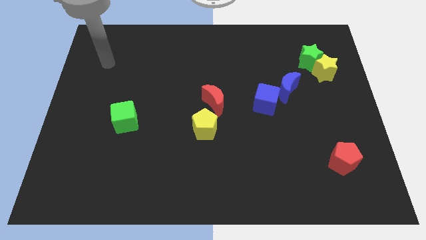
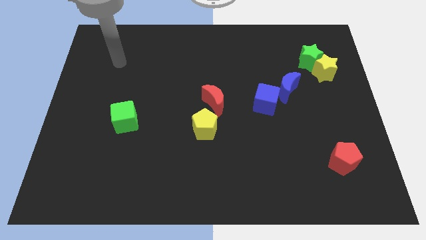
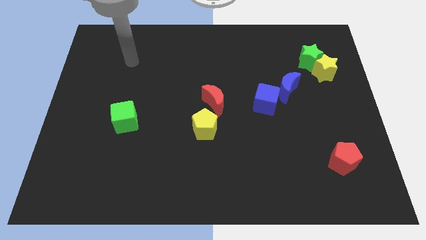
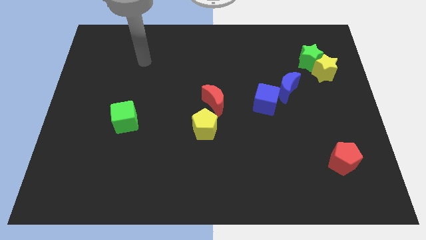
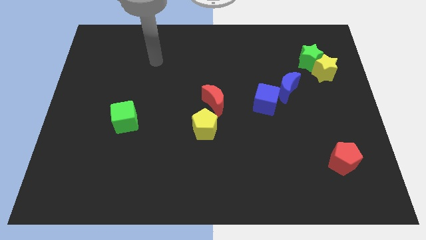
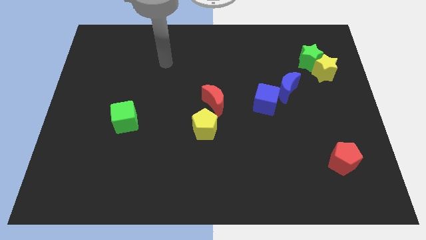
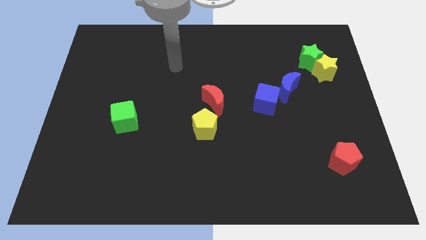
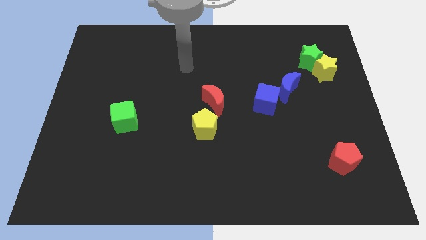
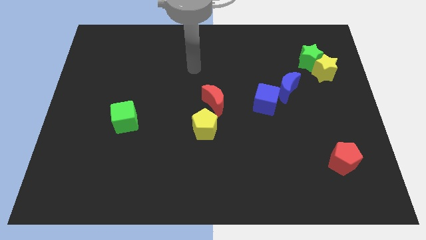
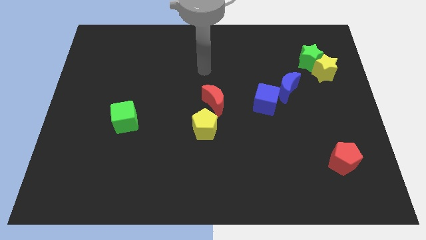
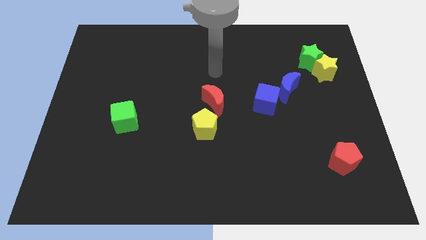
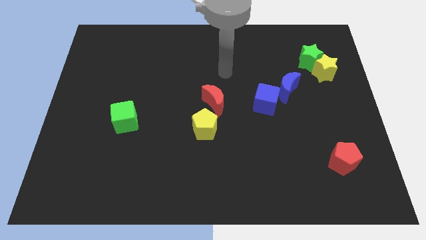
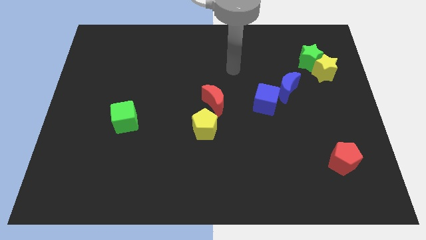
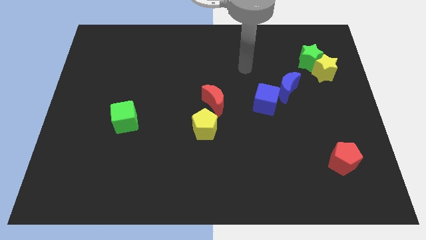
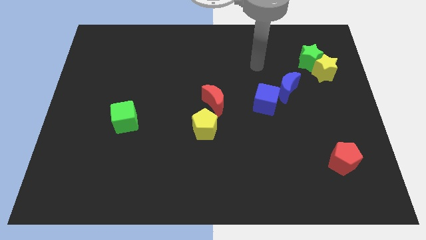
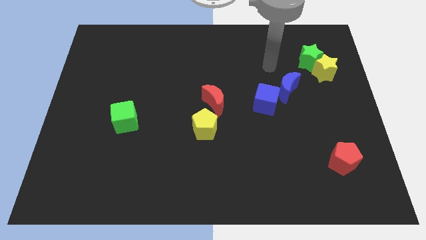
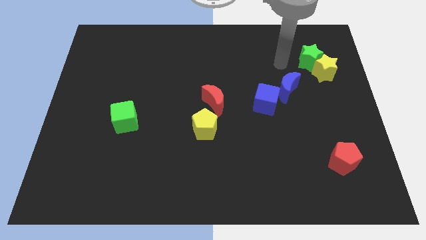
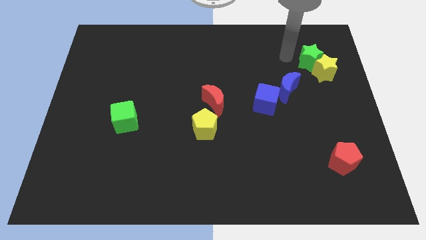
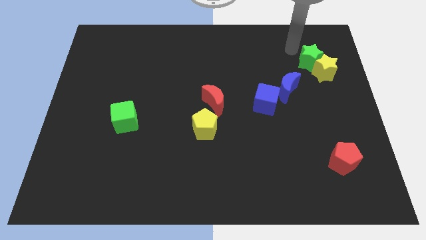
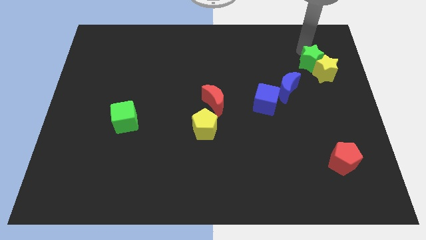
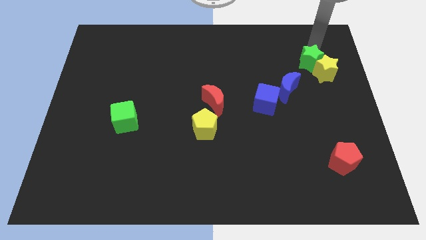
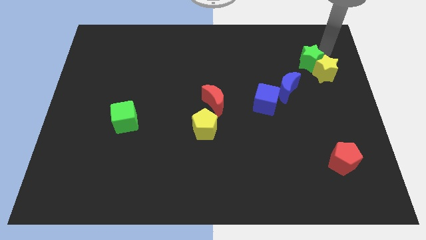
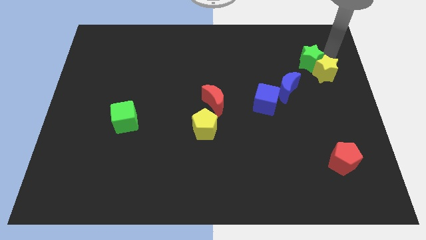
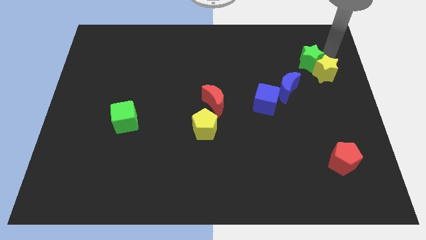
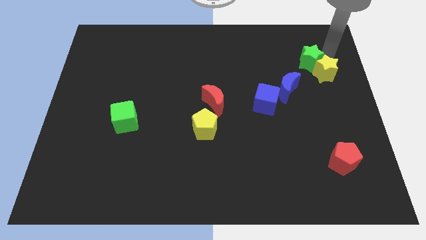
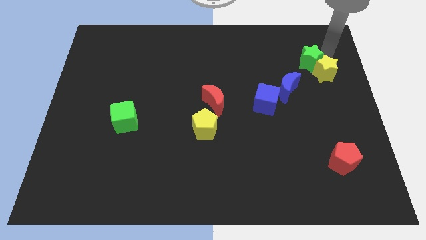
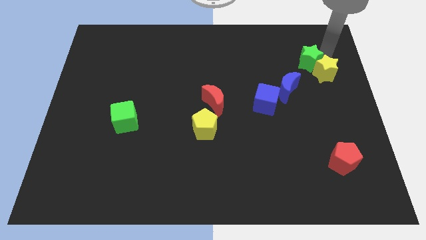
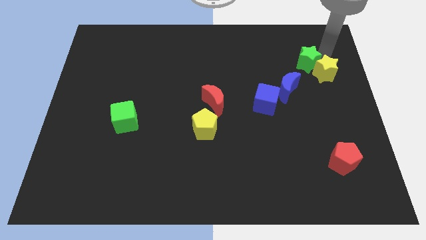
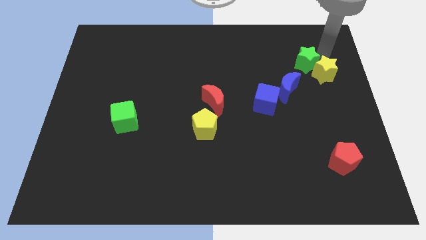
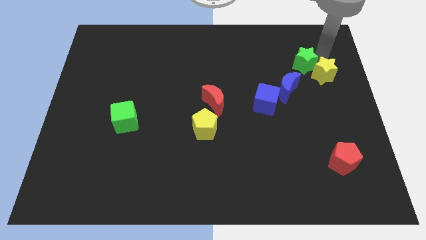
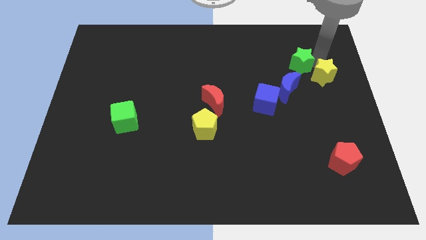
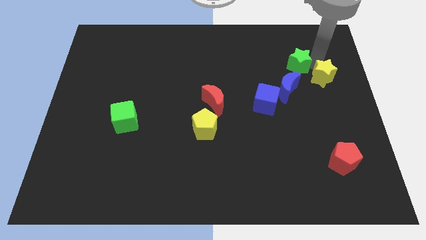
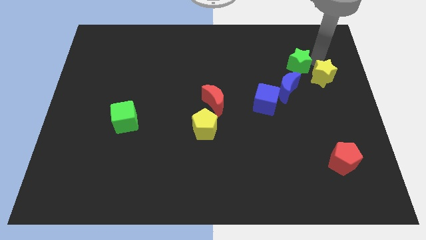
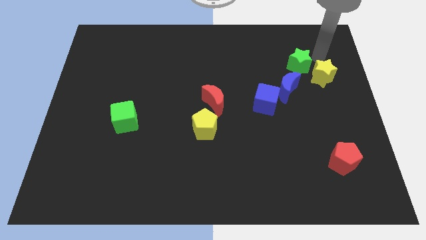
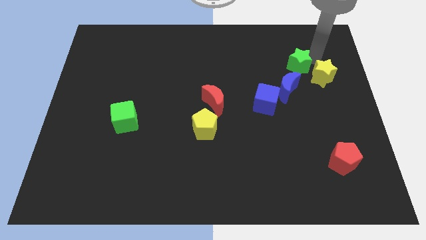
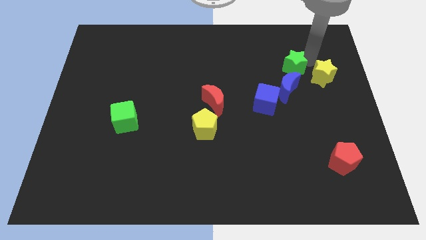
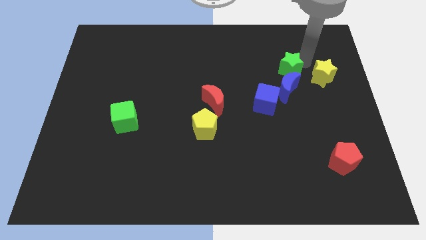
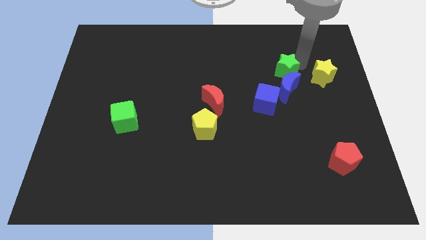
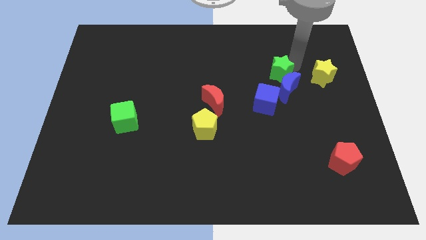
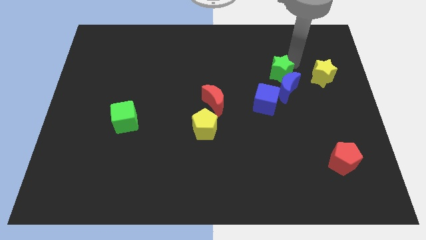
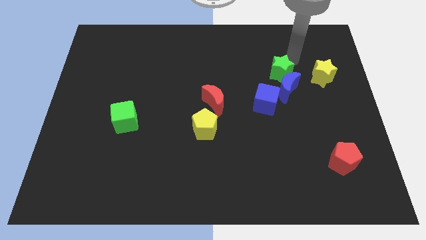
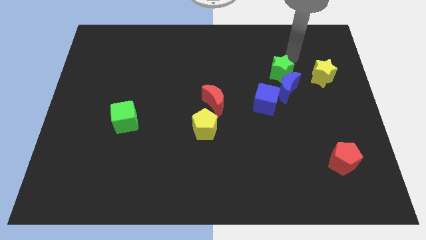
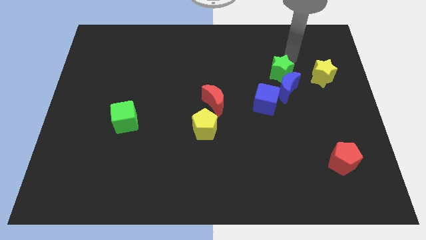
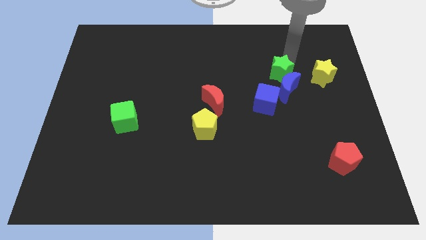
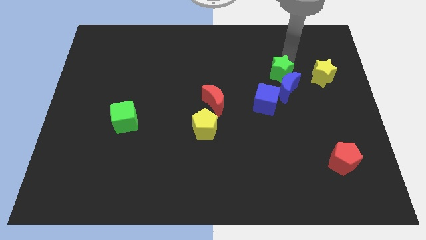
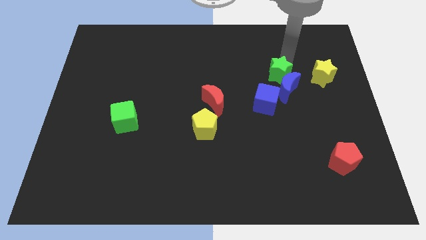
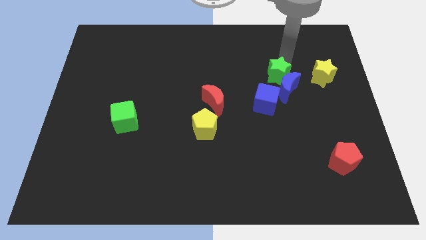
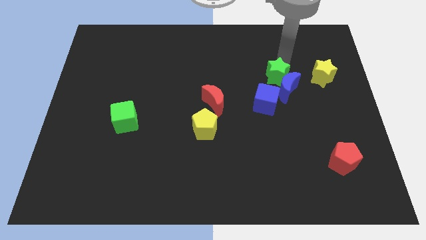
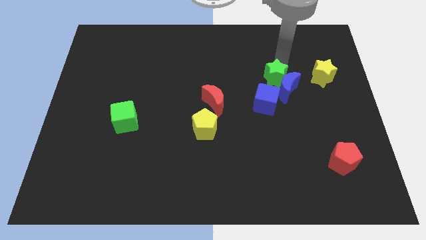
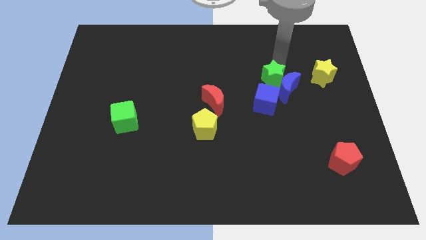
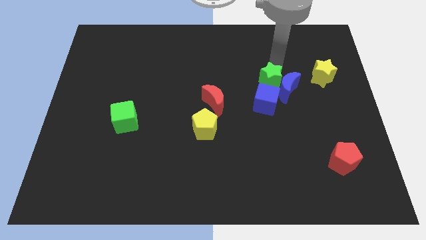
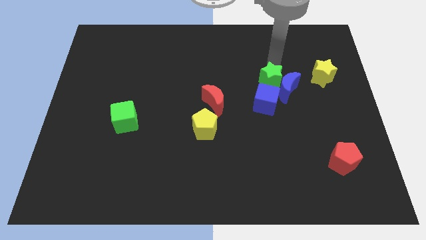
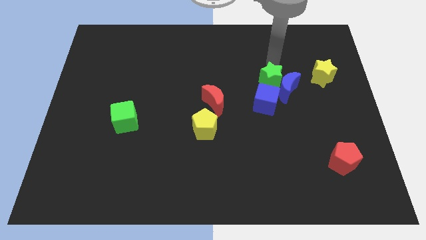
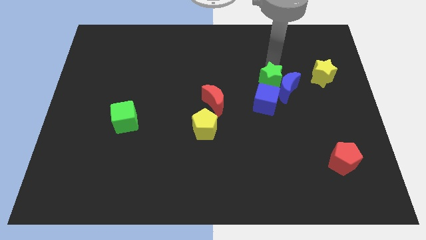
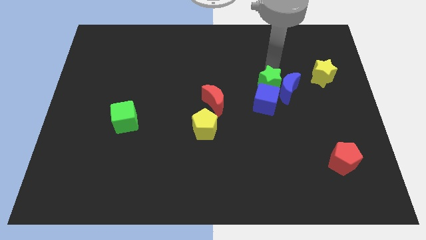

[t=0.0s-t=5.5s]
push the green star next to the blue cube

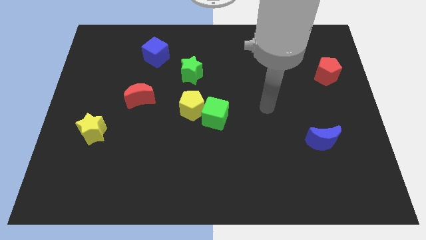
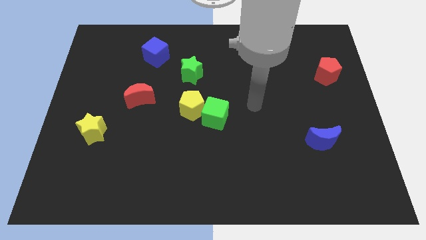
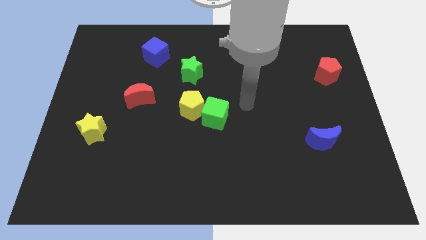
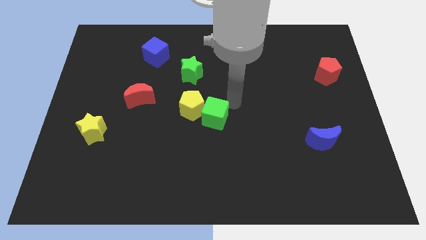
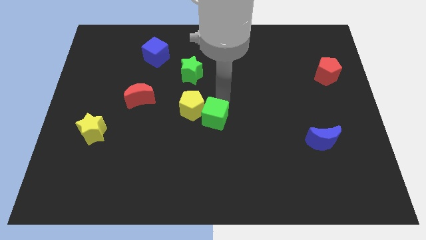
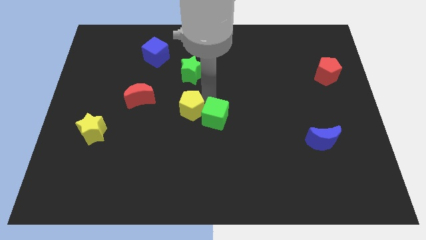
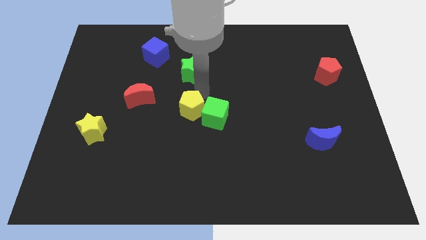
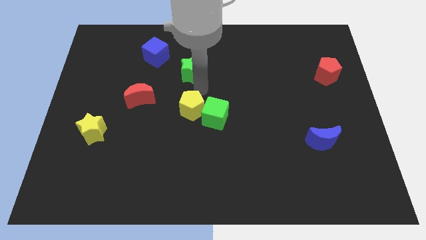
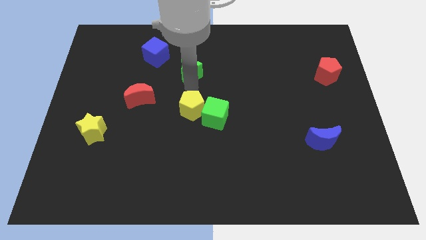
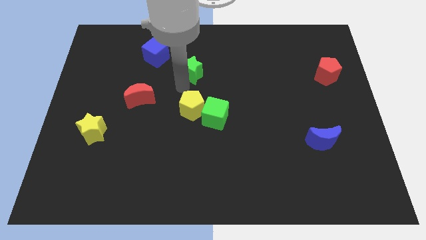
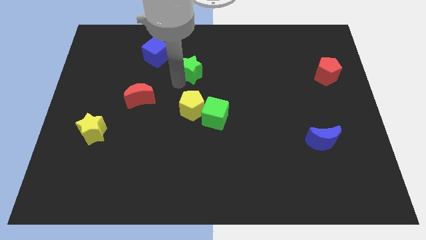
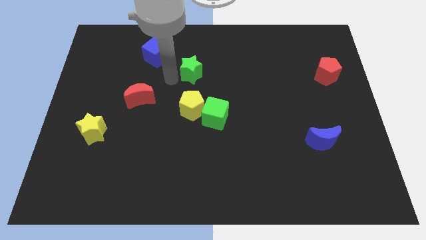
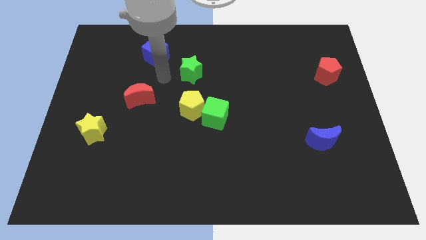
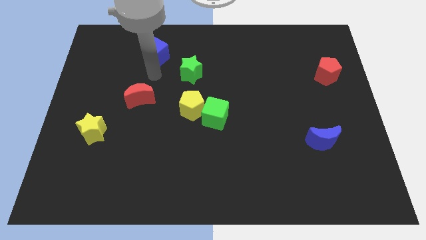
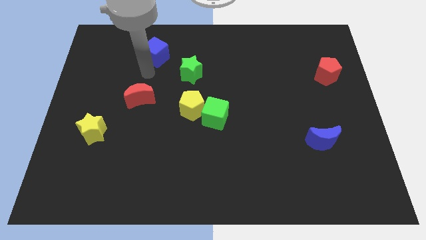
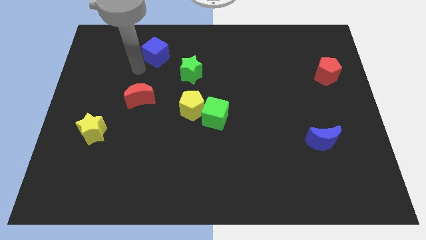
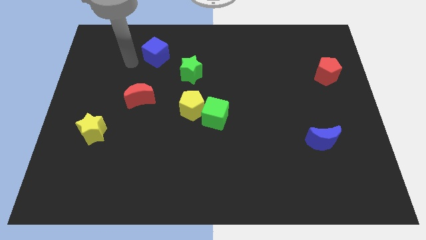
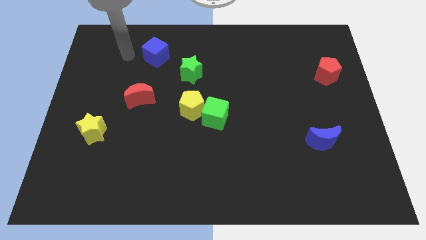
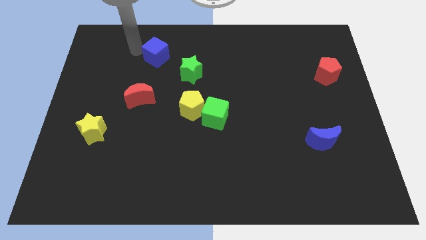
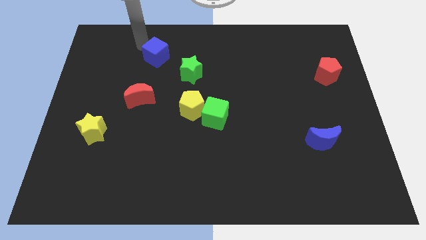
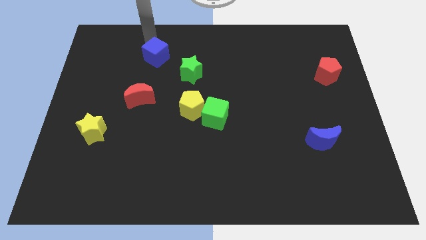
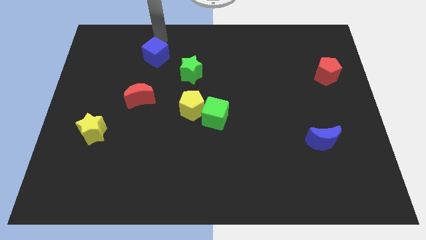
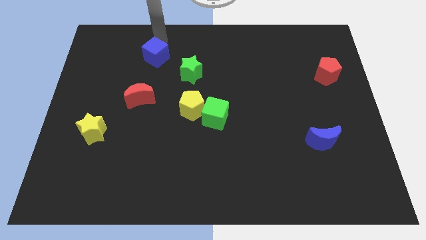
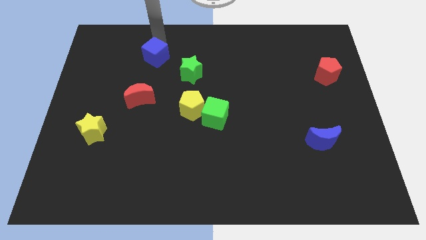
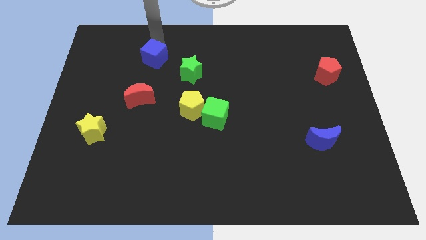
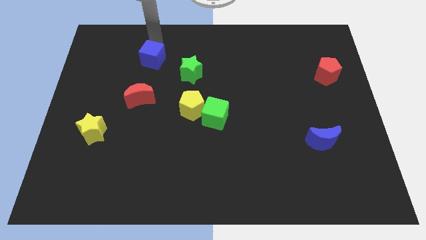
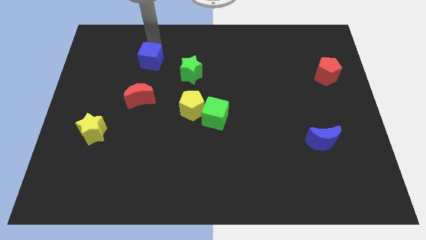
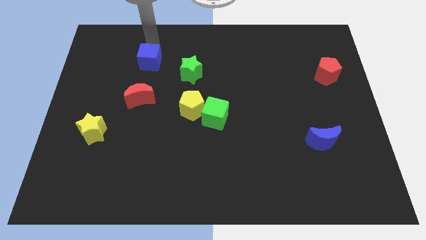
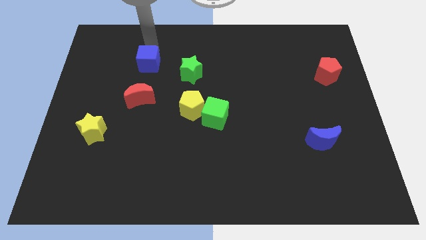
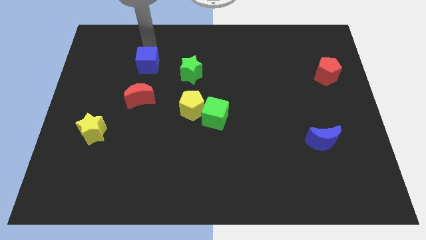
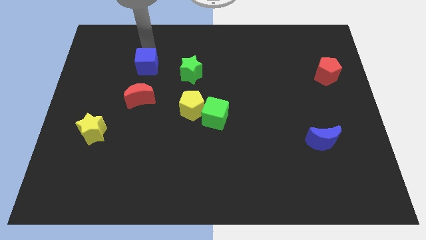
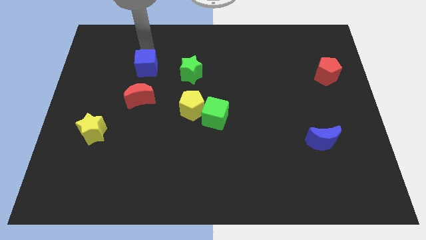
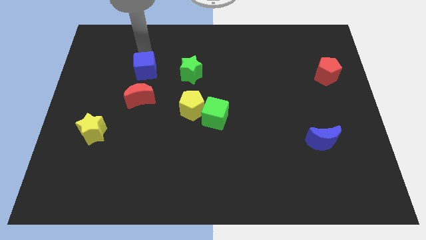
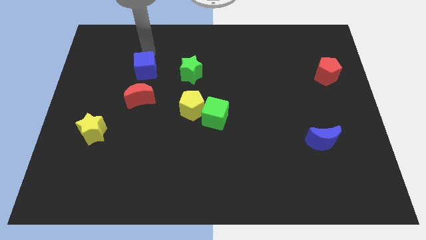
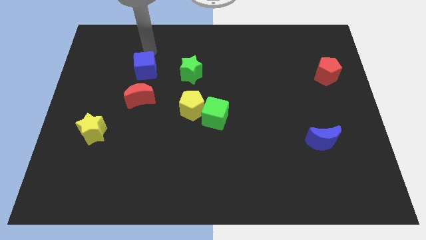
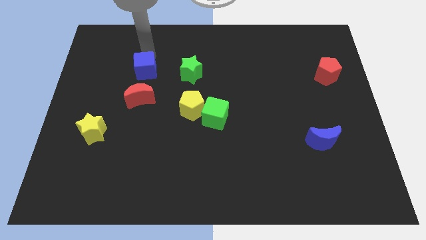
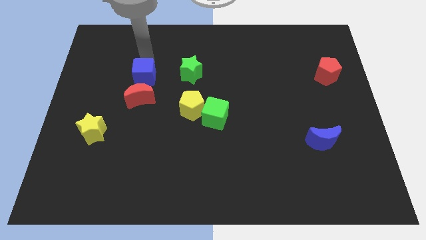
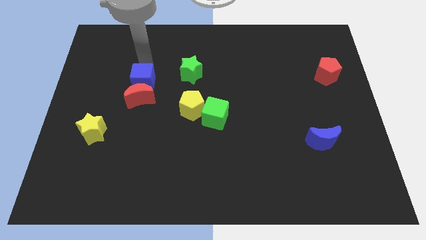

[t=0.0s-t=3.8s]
push the blue cube close to the red moon
